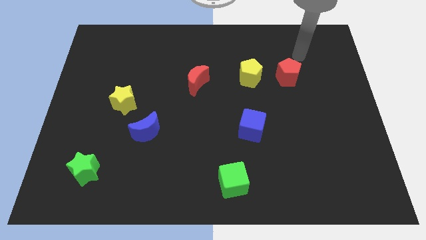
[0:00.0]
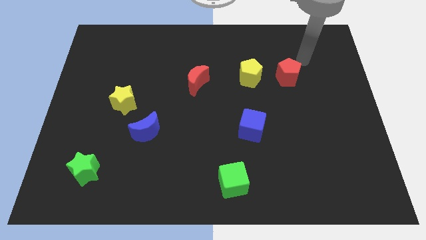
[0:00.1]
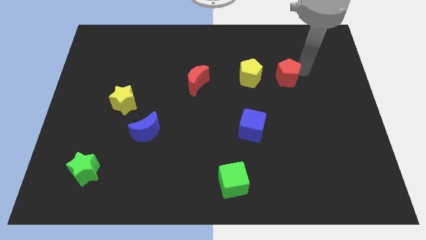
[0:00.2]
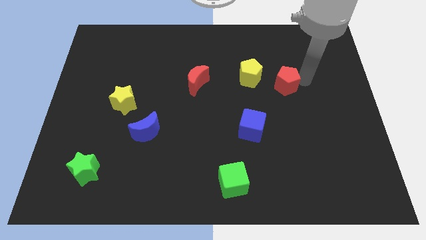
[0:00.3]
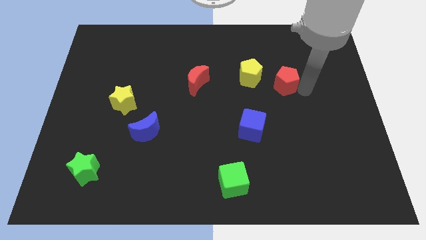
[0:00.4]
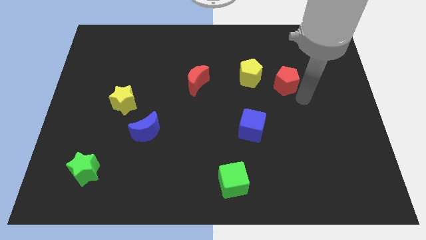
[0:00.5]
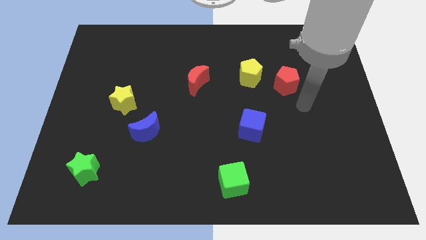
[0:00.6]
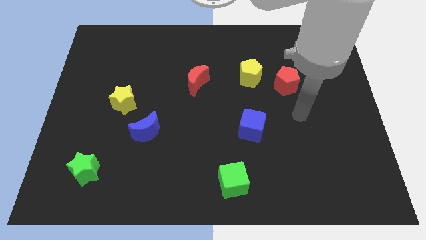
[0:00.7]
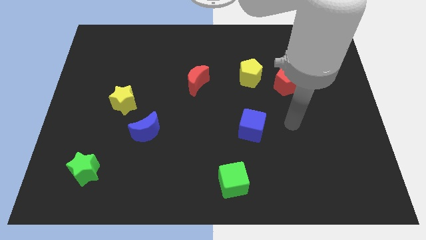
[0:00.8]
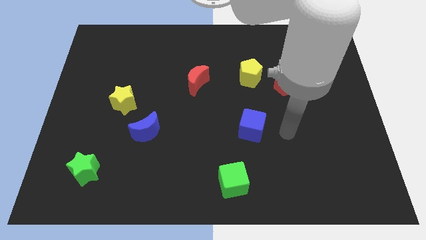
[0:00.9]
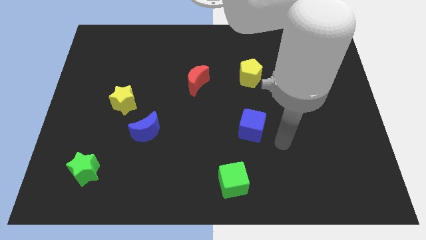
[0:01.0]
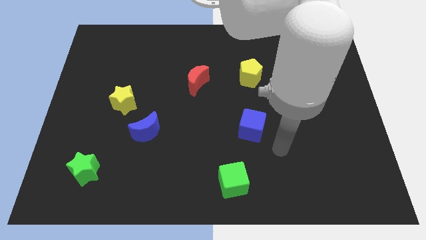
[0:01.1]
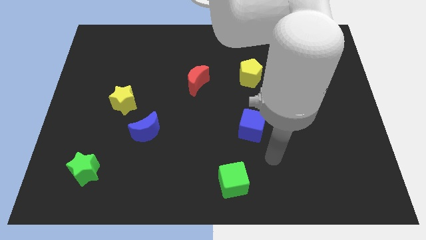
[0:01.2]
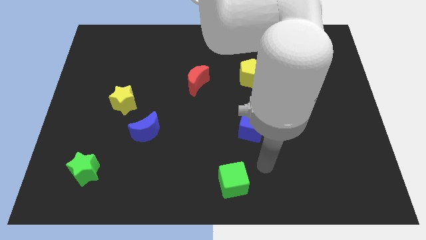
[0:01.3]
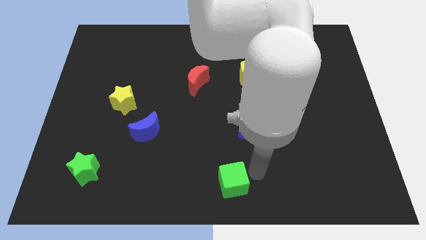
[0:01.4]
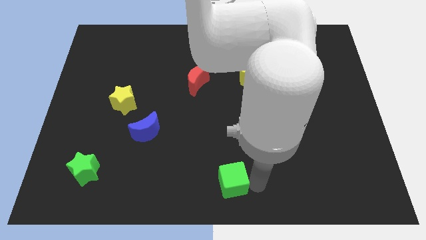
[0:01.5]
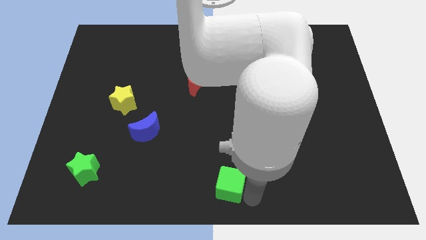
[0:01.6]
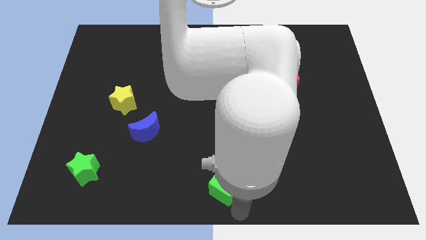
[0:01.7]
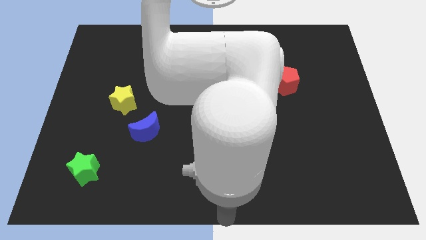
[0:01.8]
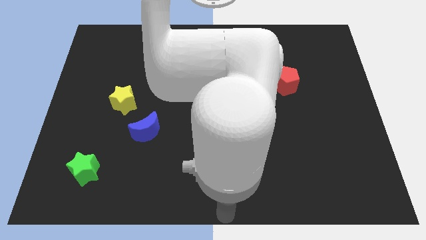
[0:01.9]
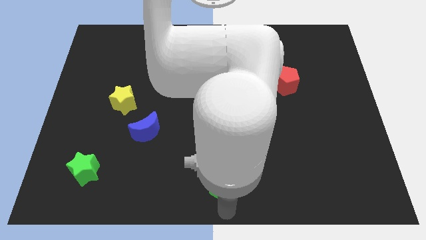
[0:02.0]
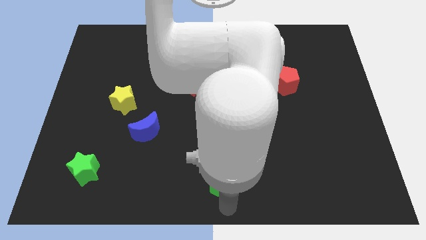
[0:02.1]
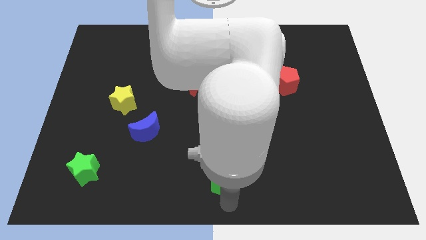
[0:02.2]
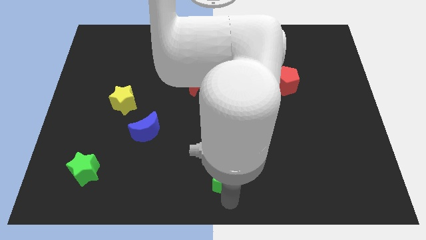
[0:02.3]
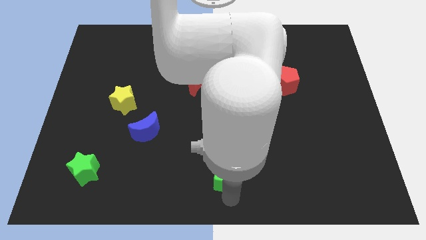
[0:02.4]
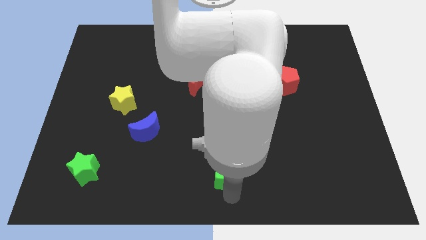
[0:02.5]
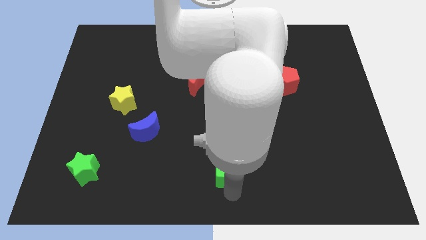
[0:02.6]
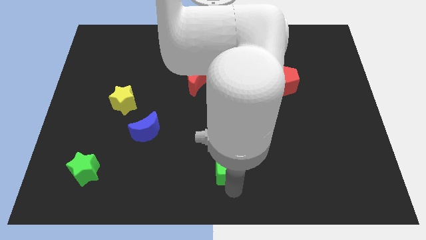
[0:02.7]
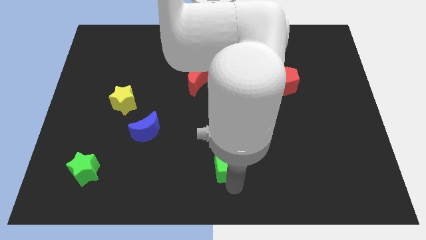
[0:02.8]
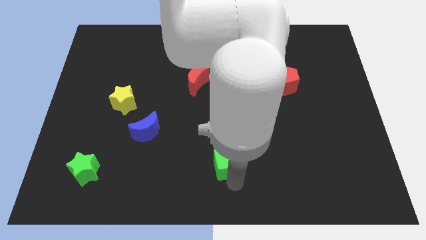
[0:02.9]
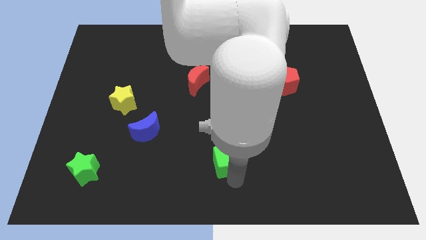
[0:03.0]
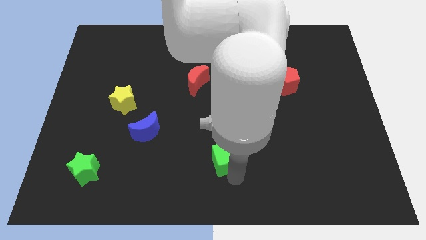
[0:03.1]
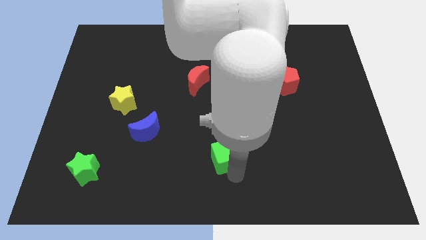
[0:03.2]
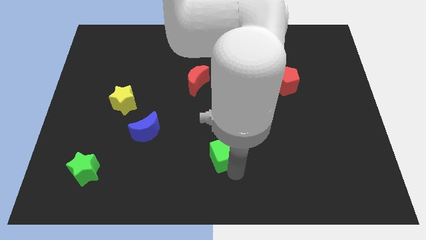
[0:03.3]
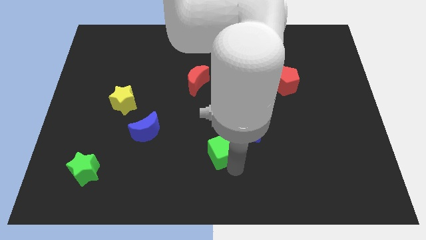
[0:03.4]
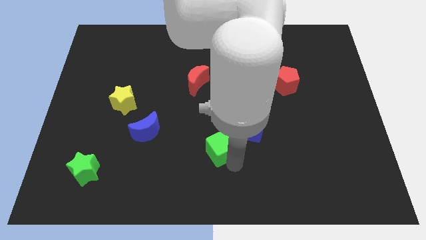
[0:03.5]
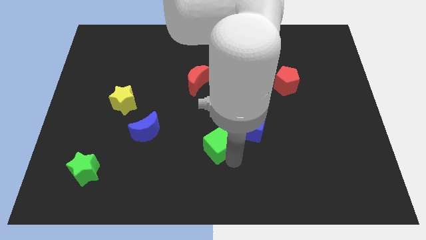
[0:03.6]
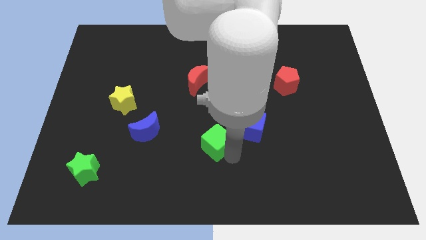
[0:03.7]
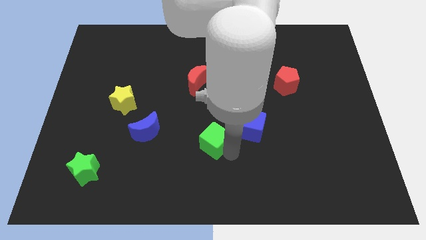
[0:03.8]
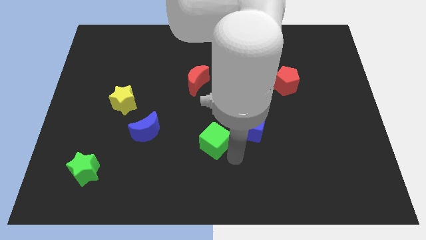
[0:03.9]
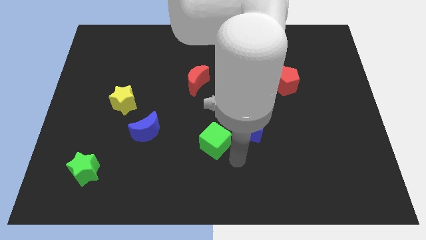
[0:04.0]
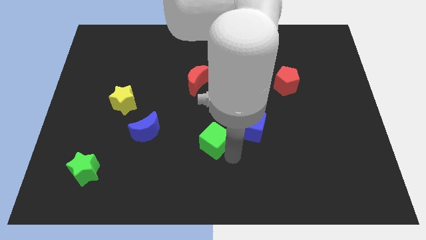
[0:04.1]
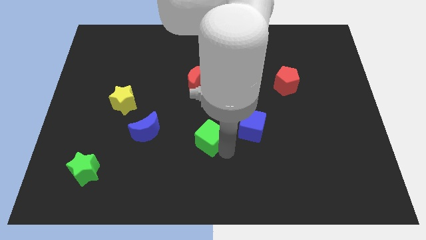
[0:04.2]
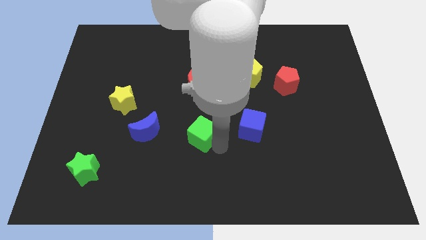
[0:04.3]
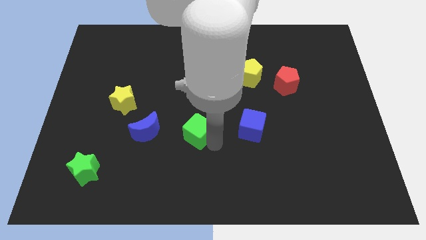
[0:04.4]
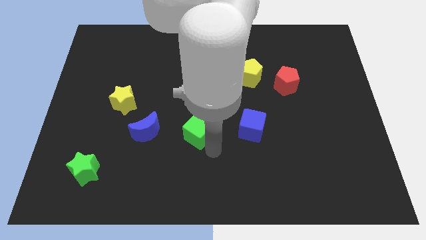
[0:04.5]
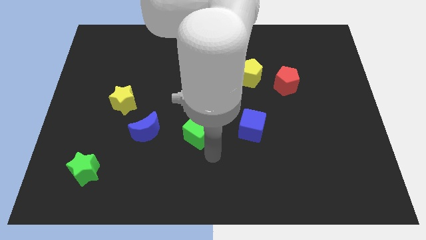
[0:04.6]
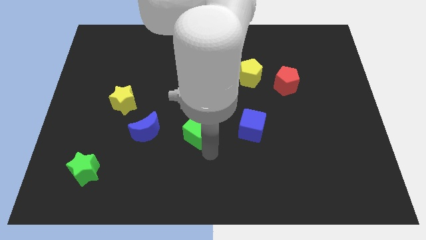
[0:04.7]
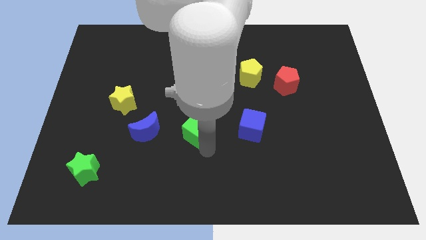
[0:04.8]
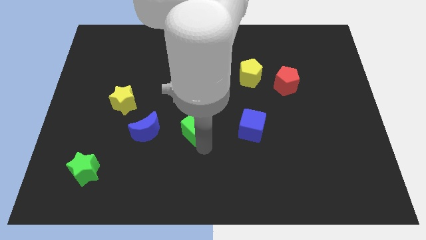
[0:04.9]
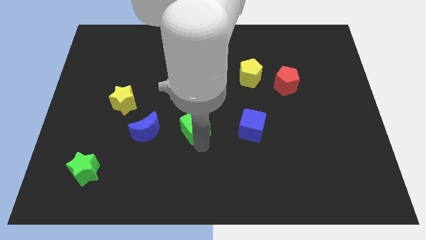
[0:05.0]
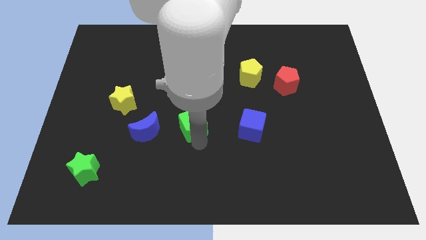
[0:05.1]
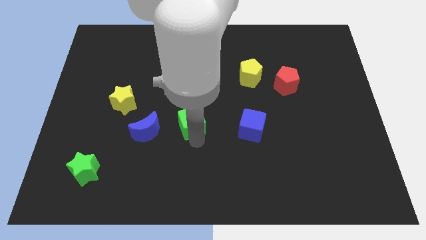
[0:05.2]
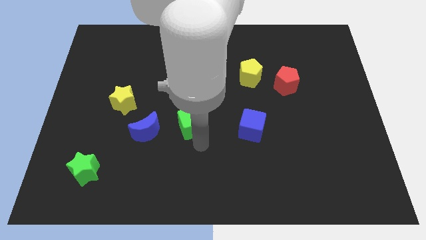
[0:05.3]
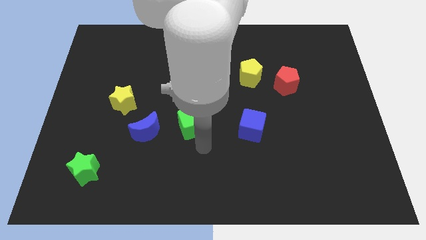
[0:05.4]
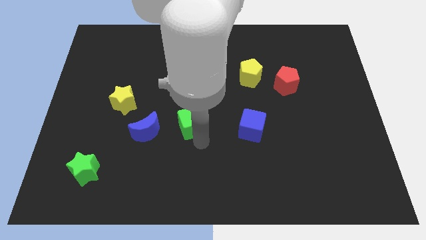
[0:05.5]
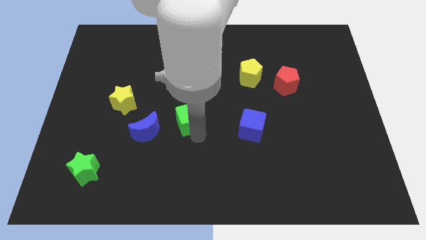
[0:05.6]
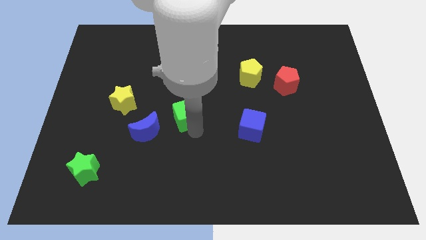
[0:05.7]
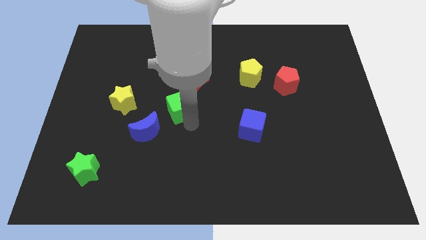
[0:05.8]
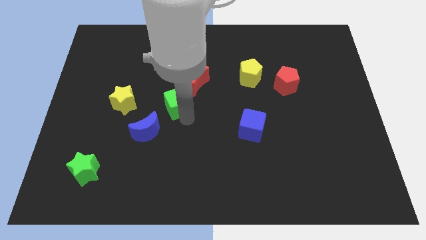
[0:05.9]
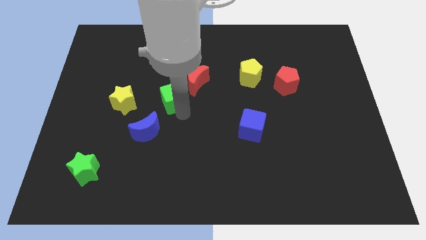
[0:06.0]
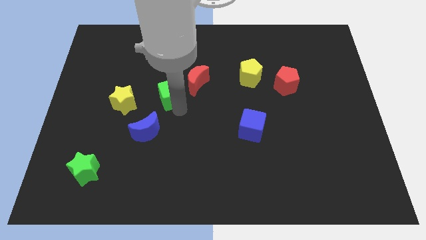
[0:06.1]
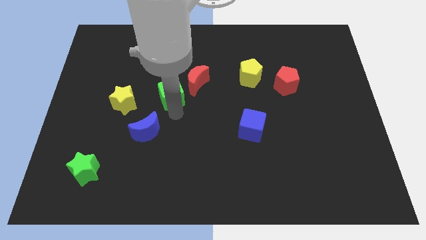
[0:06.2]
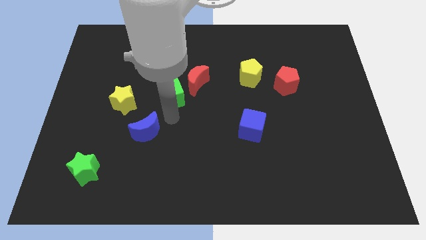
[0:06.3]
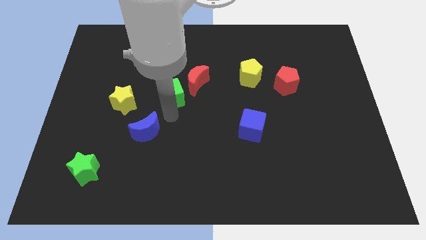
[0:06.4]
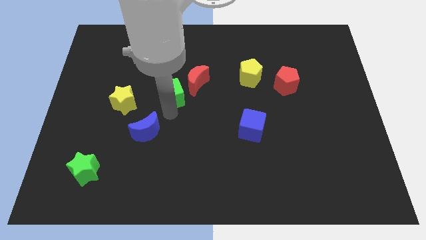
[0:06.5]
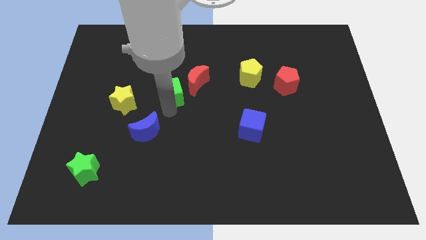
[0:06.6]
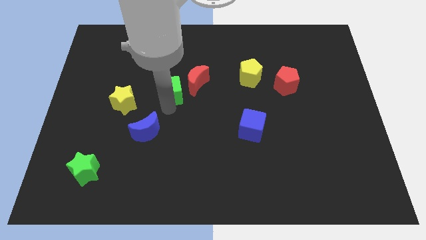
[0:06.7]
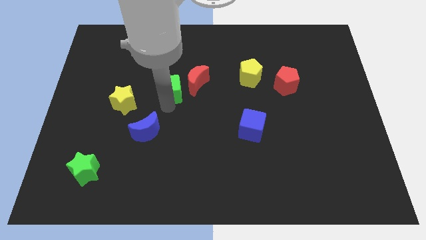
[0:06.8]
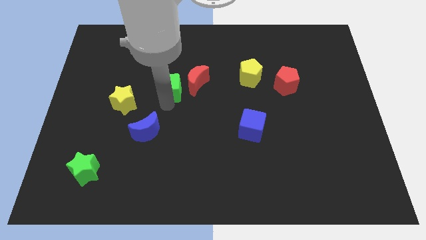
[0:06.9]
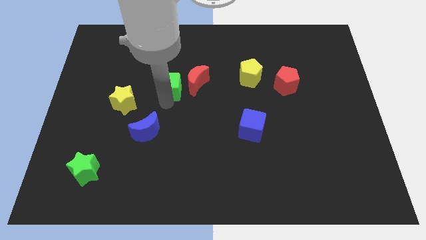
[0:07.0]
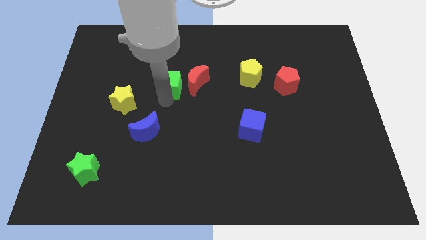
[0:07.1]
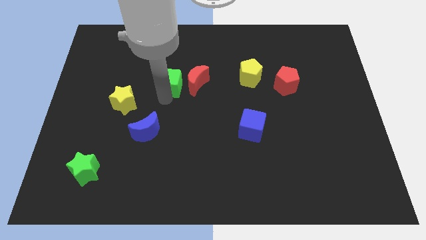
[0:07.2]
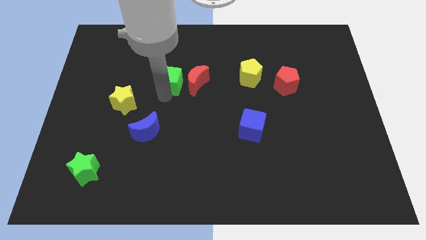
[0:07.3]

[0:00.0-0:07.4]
push the green cube to the top left of the red moon
